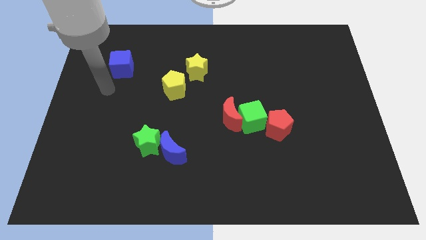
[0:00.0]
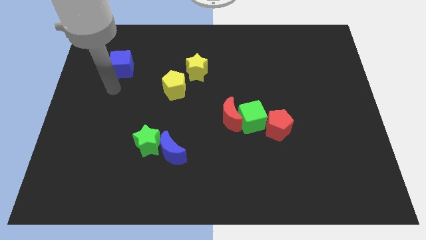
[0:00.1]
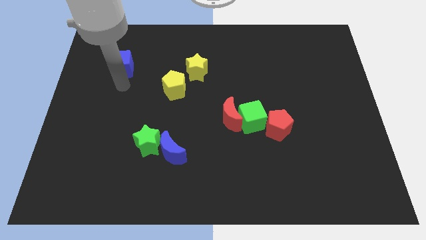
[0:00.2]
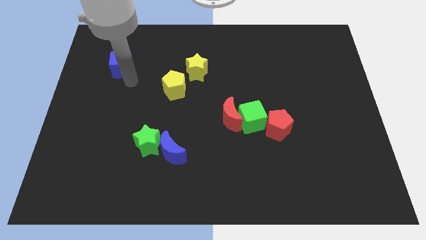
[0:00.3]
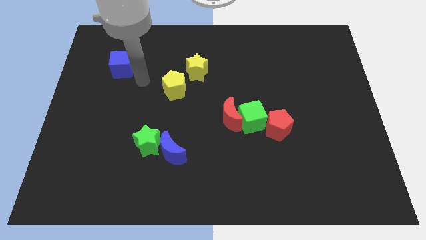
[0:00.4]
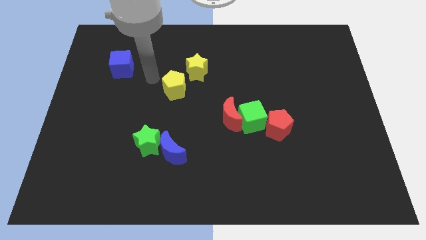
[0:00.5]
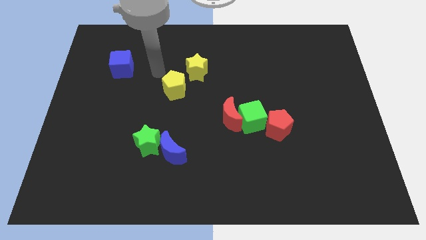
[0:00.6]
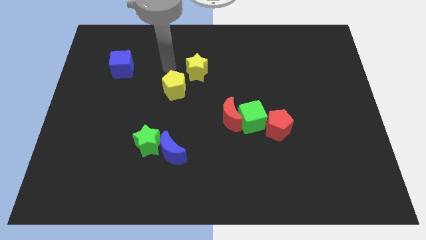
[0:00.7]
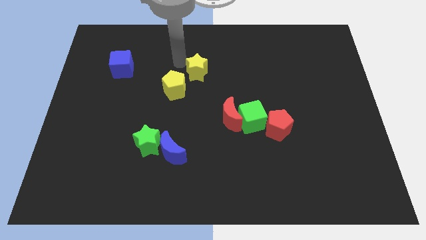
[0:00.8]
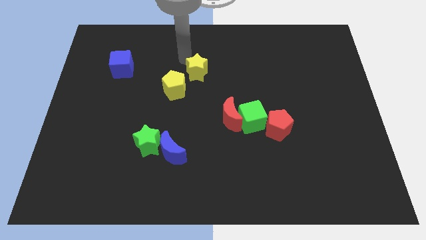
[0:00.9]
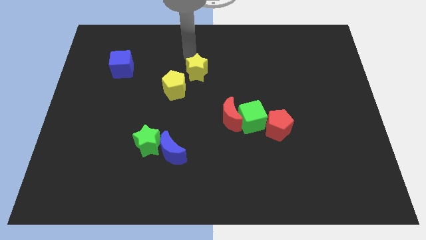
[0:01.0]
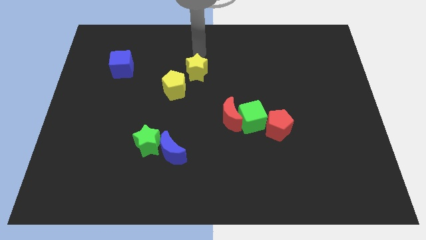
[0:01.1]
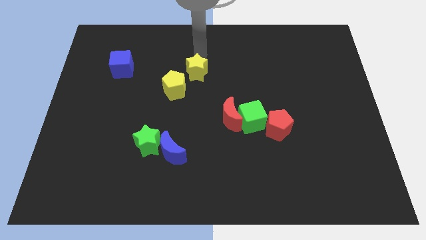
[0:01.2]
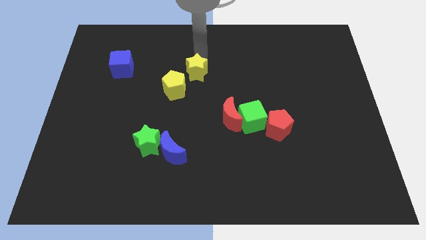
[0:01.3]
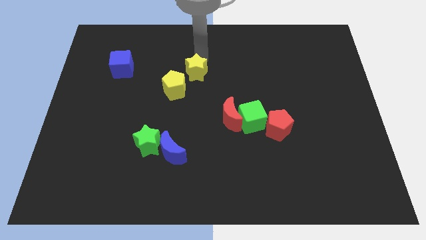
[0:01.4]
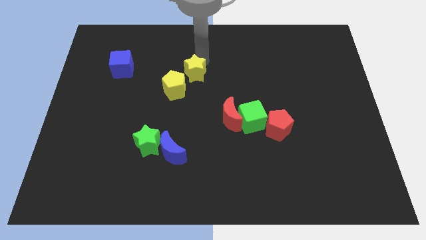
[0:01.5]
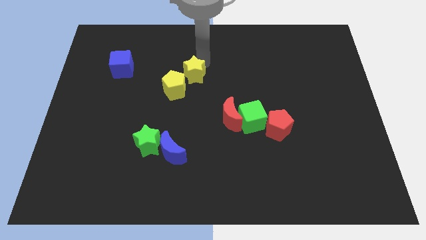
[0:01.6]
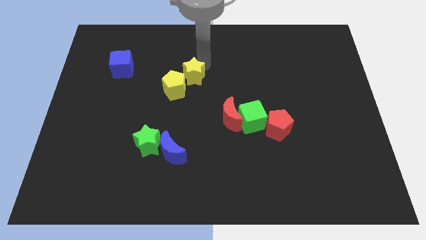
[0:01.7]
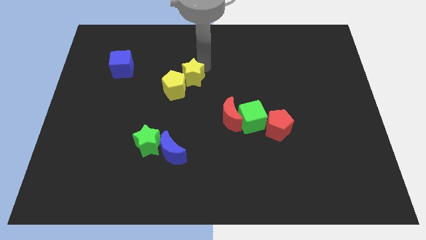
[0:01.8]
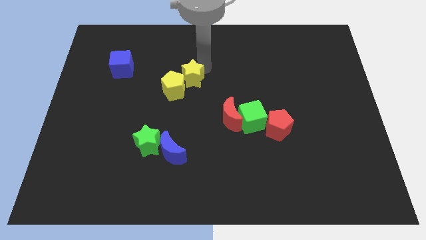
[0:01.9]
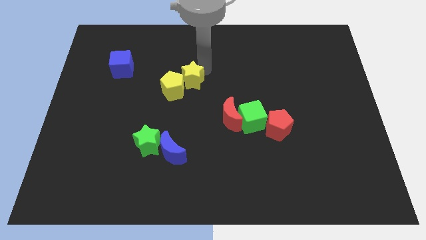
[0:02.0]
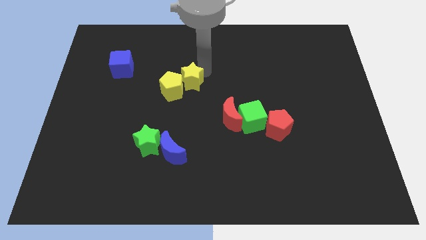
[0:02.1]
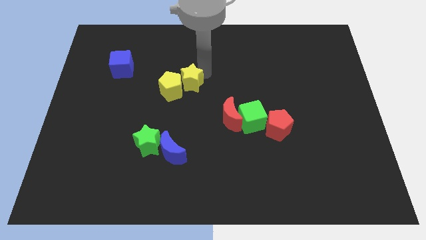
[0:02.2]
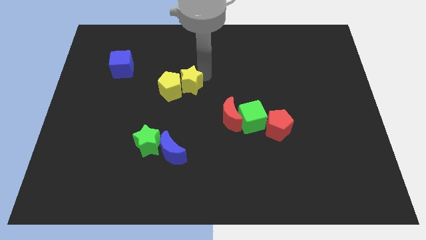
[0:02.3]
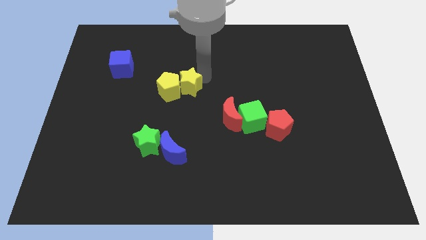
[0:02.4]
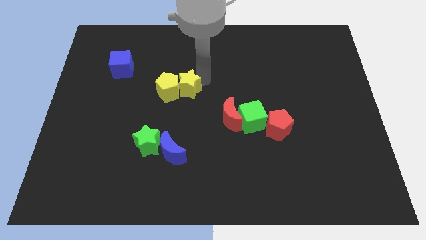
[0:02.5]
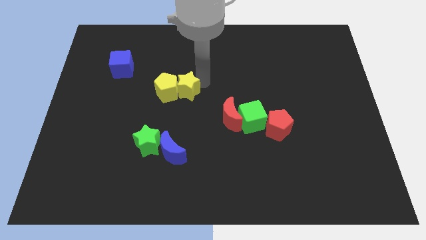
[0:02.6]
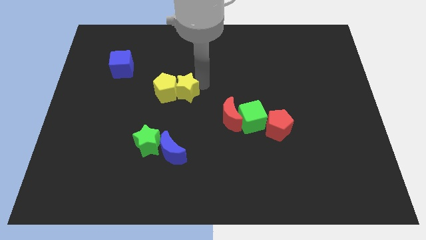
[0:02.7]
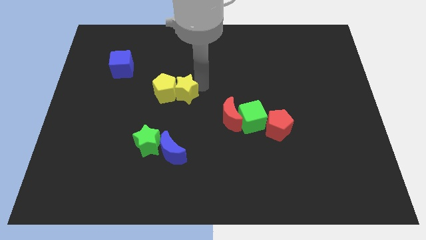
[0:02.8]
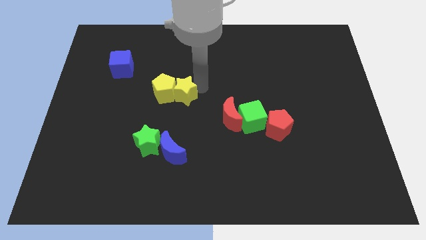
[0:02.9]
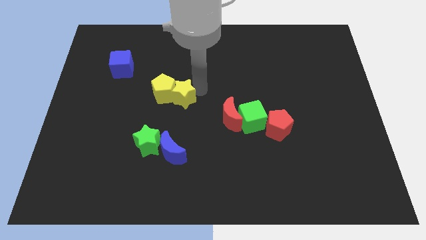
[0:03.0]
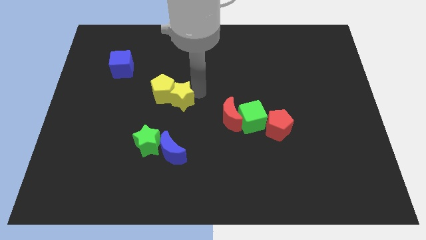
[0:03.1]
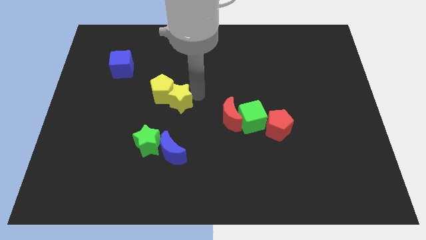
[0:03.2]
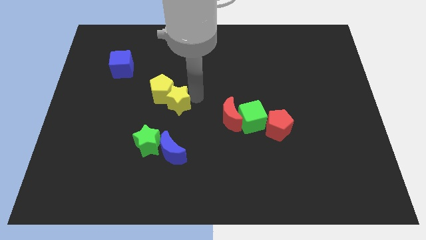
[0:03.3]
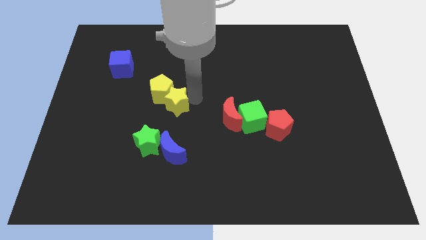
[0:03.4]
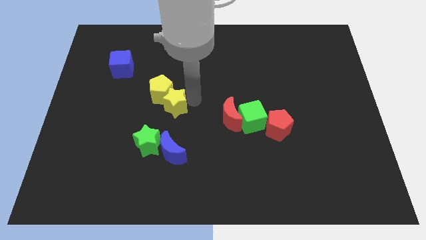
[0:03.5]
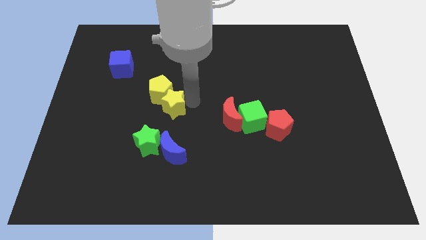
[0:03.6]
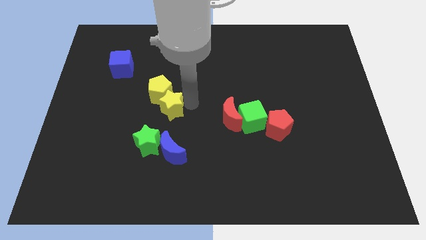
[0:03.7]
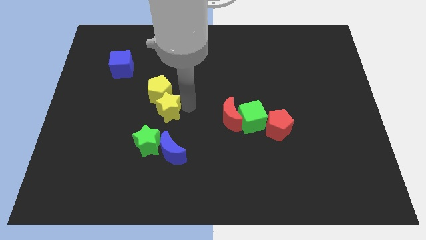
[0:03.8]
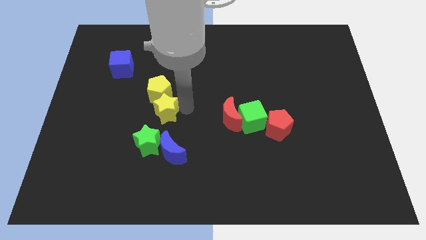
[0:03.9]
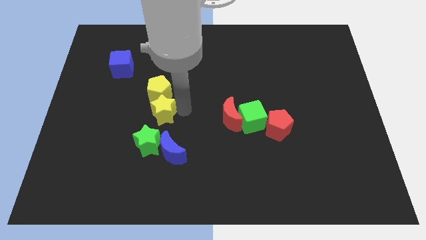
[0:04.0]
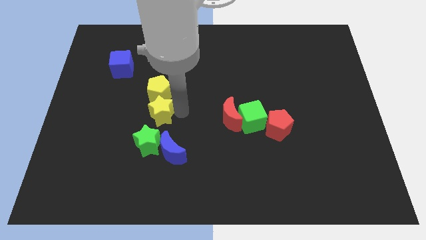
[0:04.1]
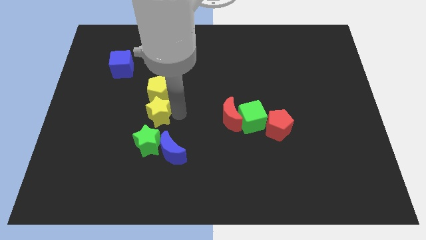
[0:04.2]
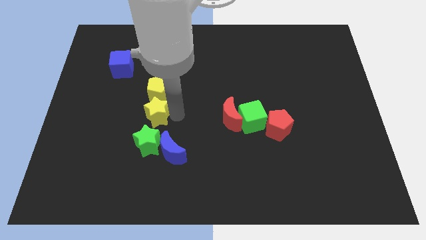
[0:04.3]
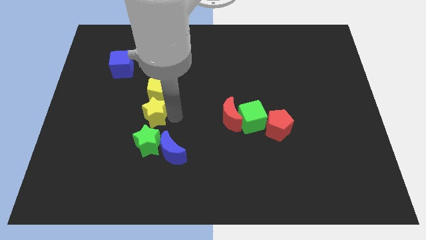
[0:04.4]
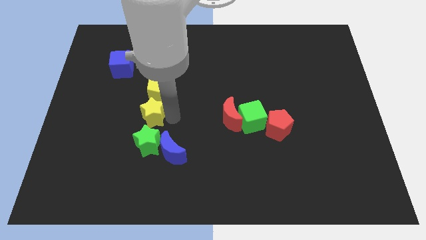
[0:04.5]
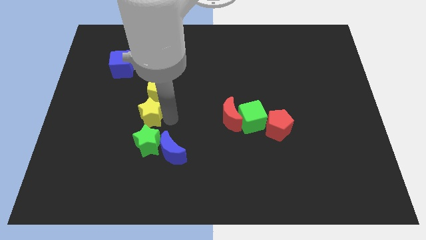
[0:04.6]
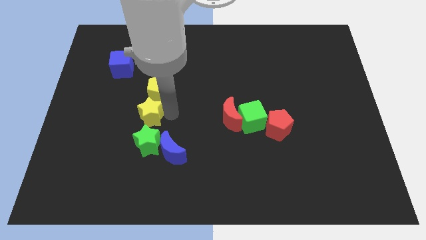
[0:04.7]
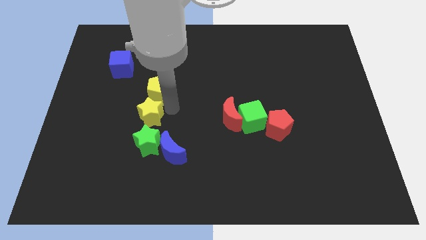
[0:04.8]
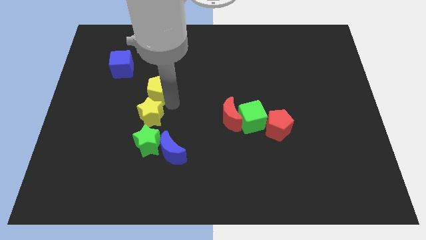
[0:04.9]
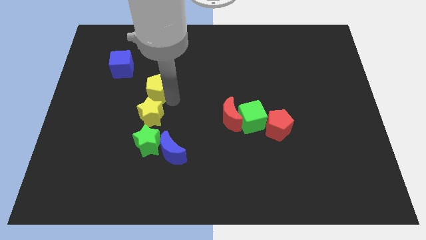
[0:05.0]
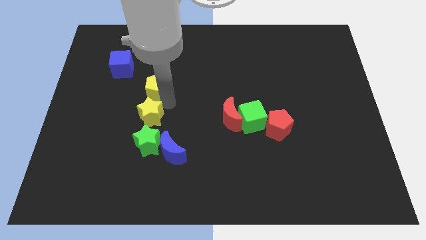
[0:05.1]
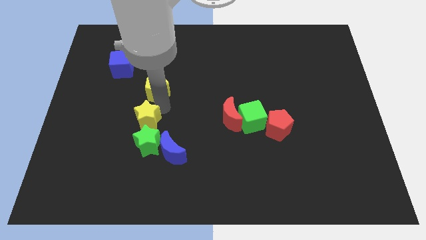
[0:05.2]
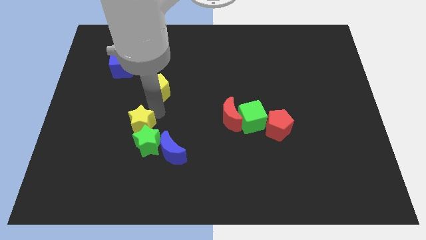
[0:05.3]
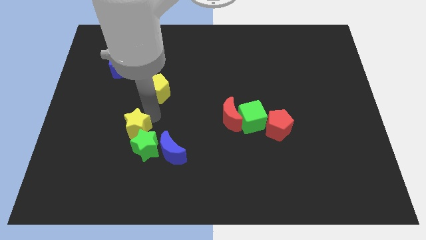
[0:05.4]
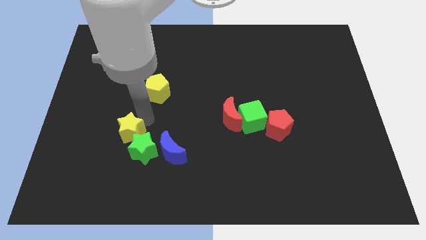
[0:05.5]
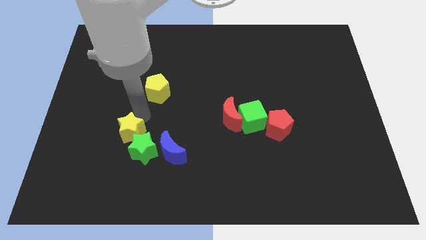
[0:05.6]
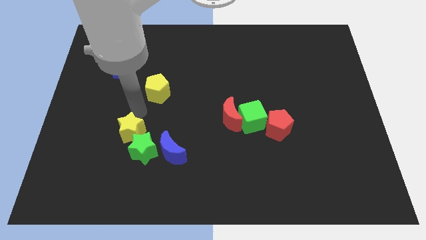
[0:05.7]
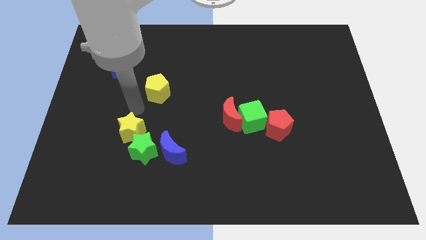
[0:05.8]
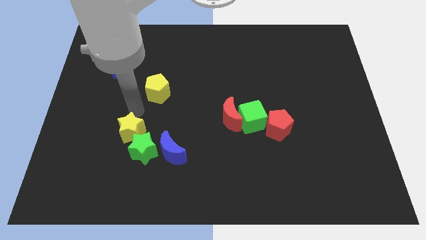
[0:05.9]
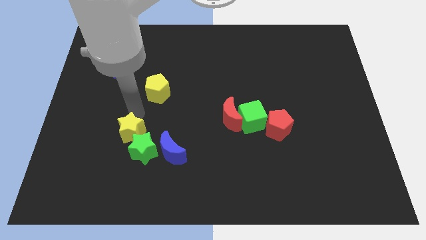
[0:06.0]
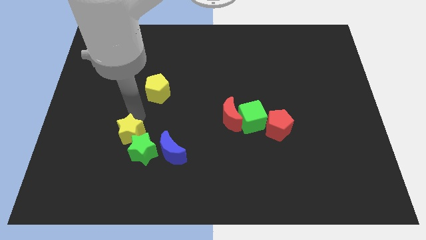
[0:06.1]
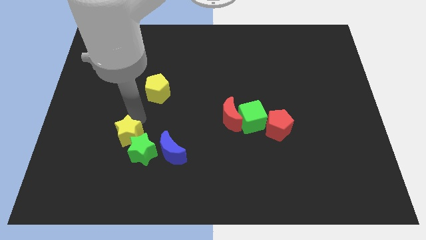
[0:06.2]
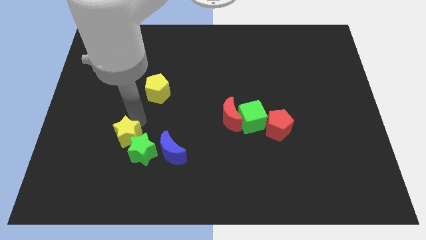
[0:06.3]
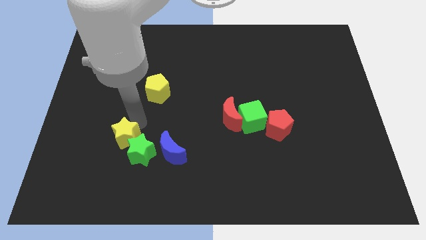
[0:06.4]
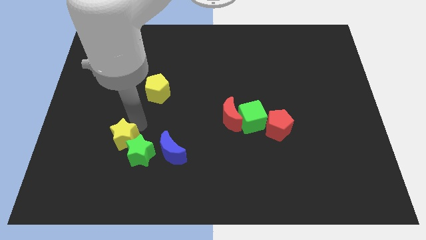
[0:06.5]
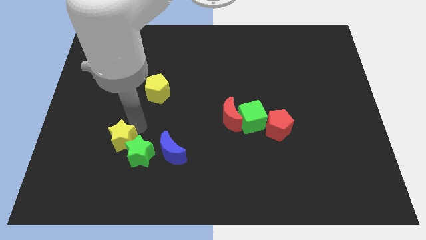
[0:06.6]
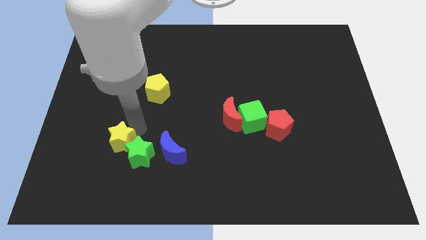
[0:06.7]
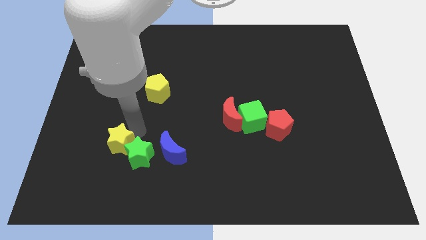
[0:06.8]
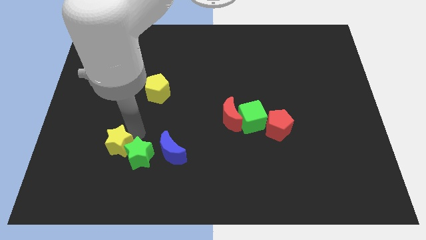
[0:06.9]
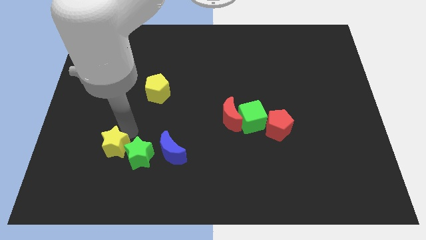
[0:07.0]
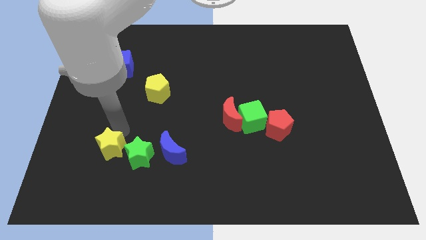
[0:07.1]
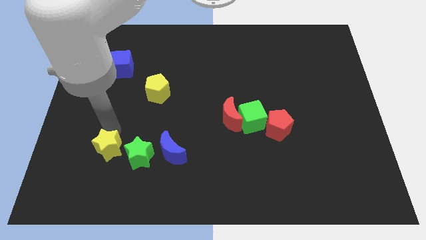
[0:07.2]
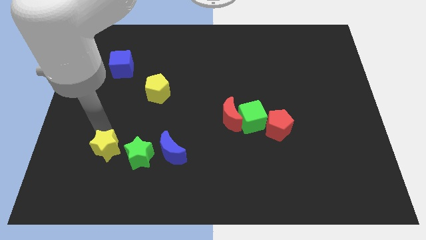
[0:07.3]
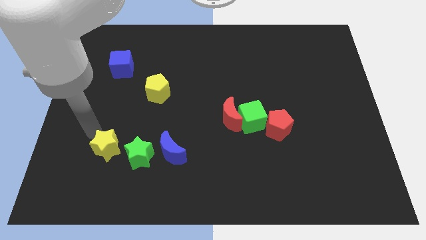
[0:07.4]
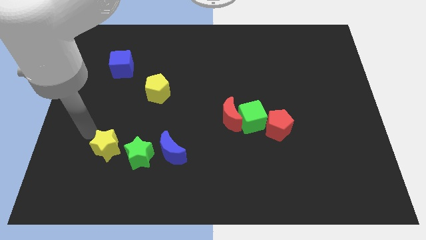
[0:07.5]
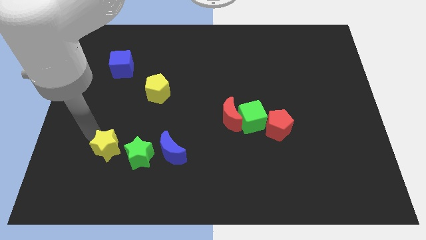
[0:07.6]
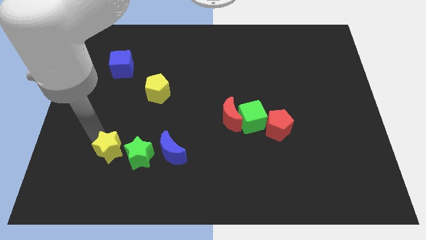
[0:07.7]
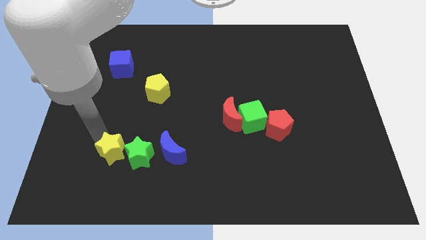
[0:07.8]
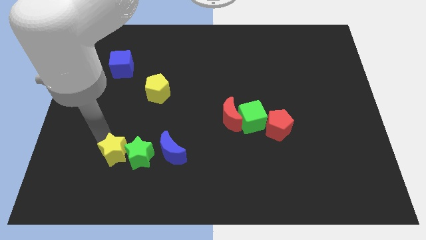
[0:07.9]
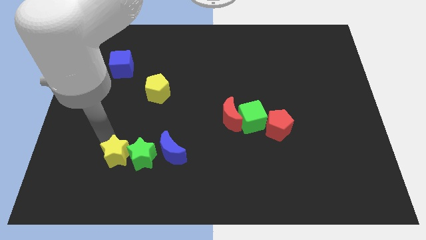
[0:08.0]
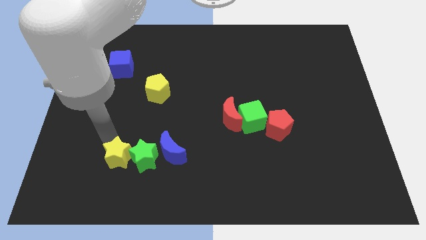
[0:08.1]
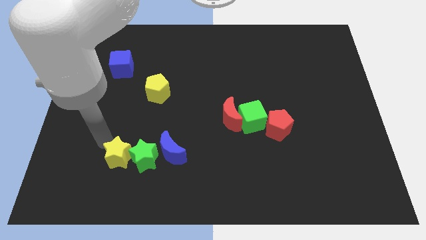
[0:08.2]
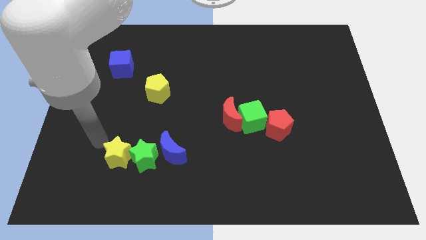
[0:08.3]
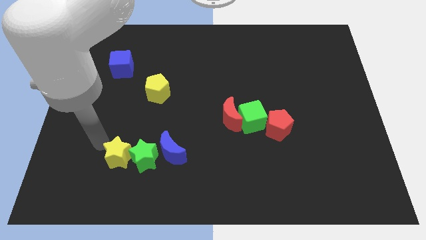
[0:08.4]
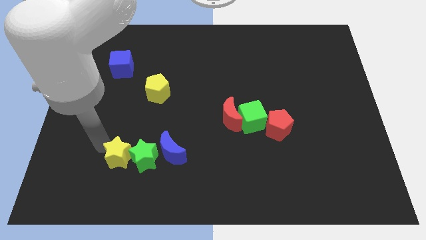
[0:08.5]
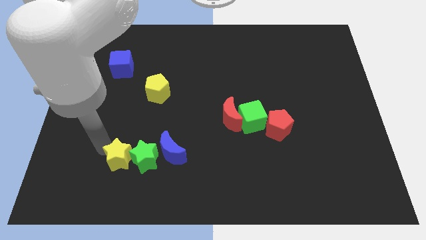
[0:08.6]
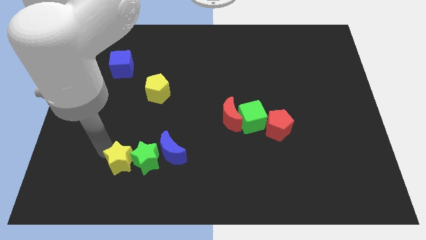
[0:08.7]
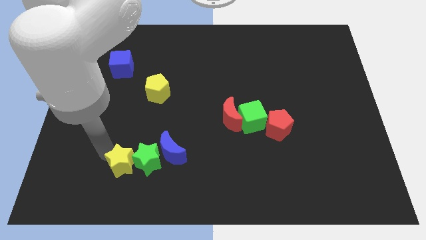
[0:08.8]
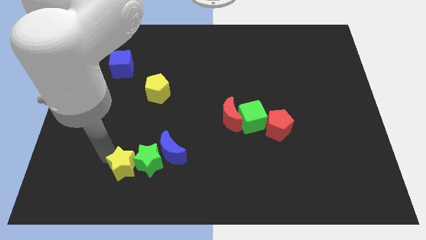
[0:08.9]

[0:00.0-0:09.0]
slide the yellow star diagonally down and to the left of the blue moon
